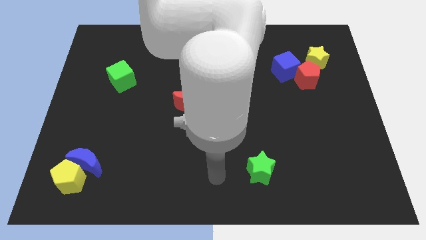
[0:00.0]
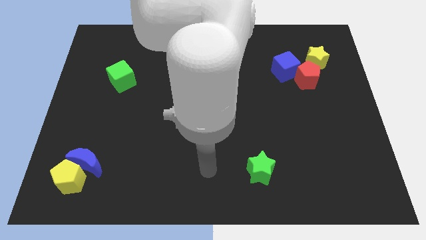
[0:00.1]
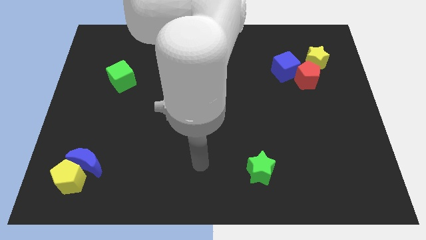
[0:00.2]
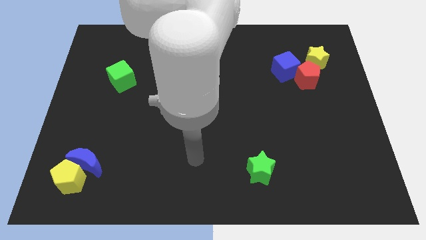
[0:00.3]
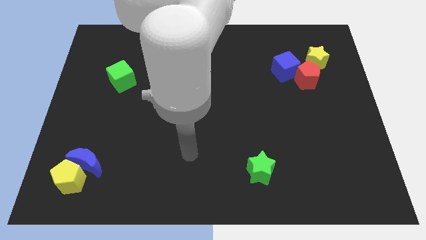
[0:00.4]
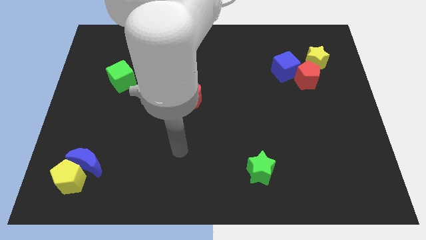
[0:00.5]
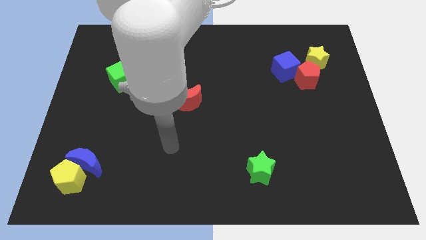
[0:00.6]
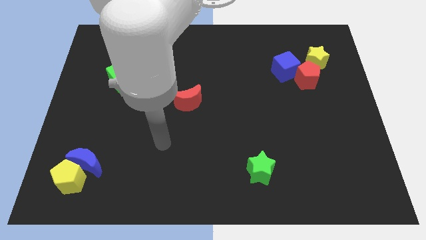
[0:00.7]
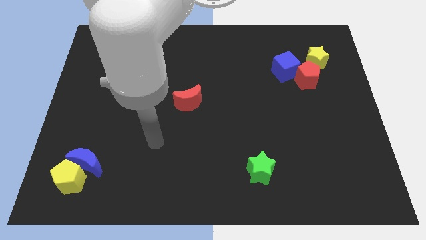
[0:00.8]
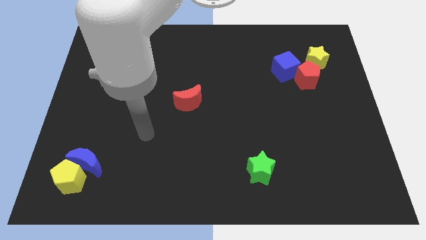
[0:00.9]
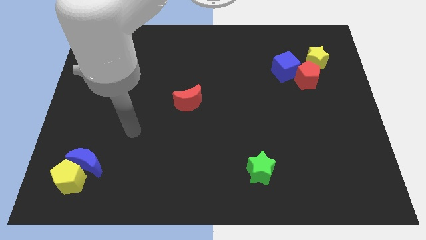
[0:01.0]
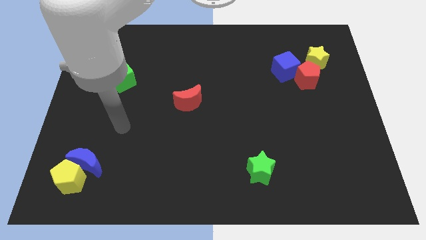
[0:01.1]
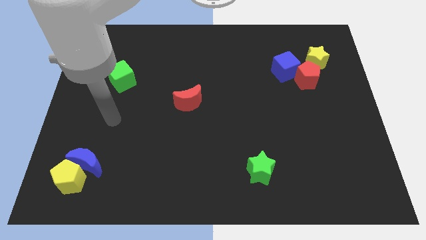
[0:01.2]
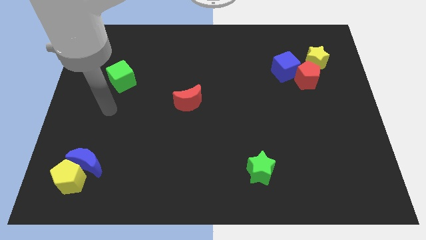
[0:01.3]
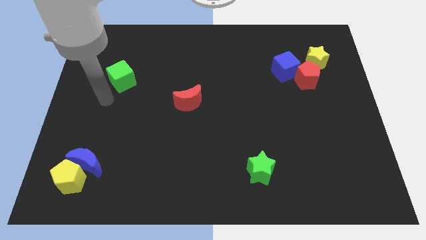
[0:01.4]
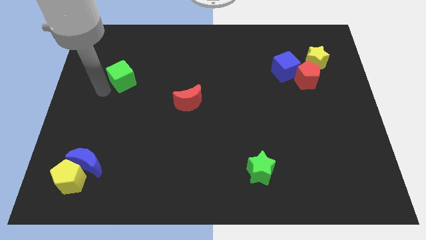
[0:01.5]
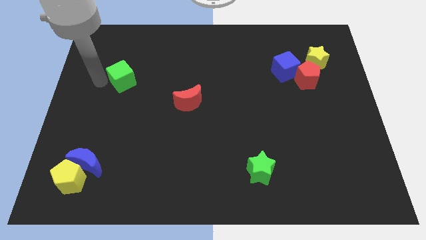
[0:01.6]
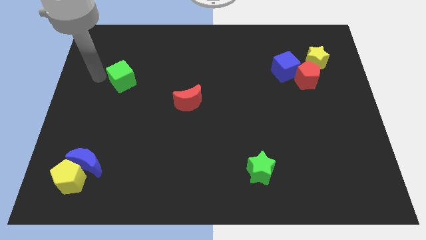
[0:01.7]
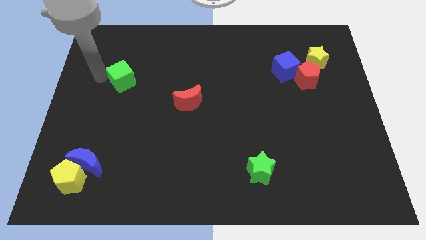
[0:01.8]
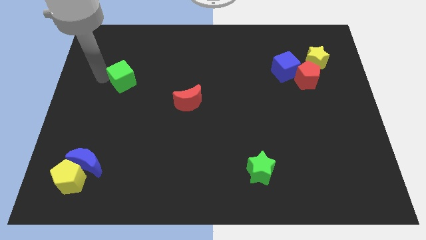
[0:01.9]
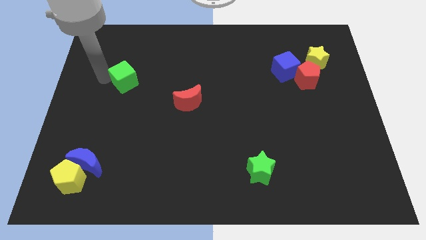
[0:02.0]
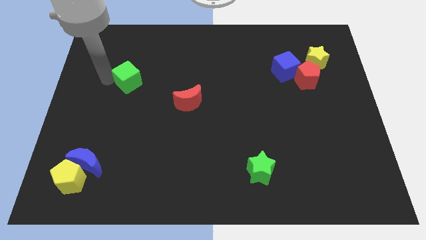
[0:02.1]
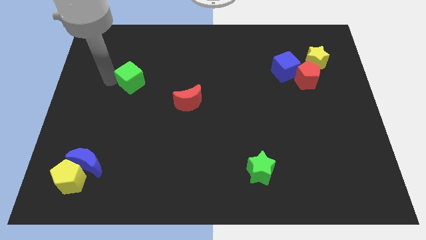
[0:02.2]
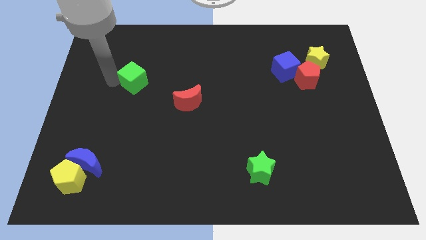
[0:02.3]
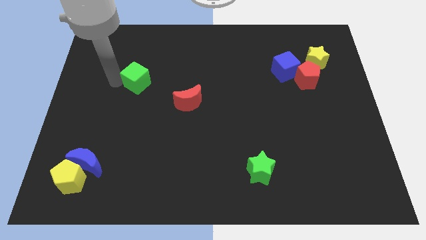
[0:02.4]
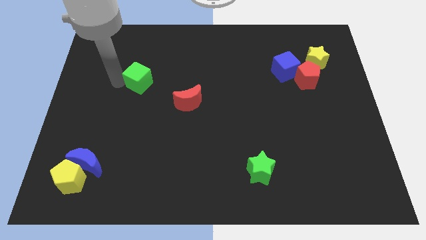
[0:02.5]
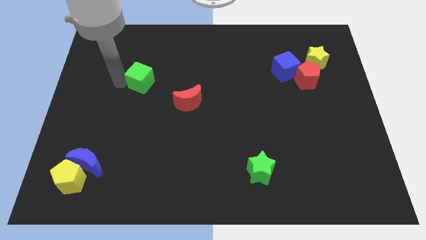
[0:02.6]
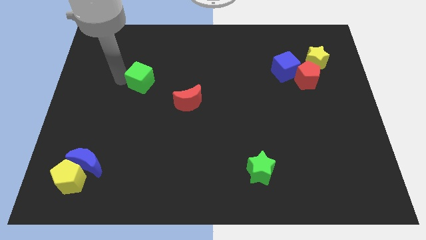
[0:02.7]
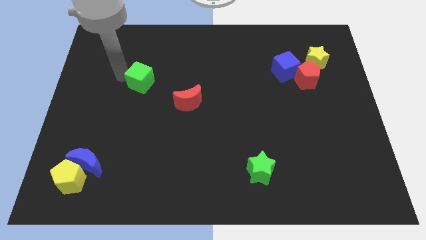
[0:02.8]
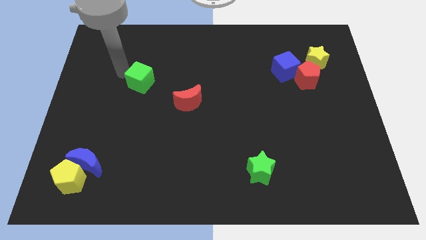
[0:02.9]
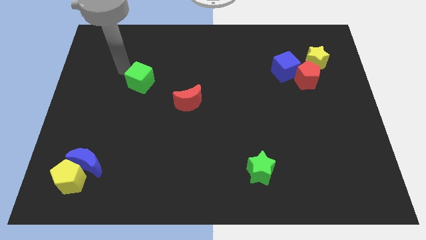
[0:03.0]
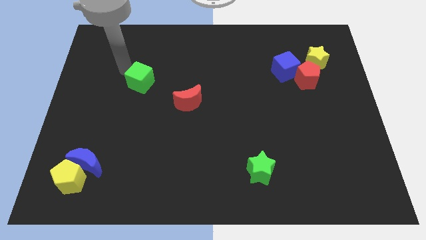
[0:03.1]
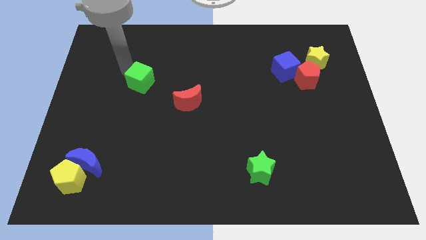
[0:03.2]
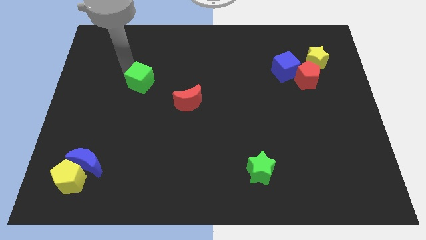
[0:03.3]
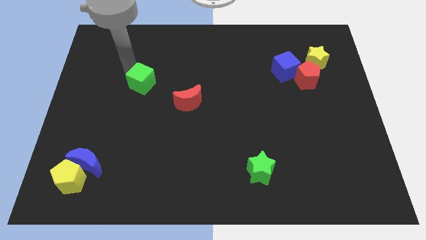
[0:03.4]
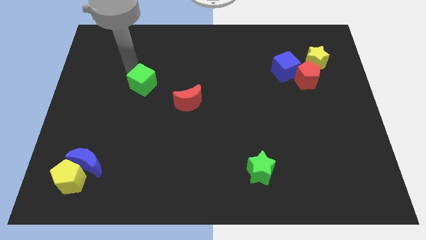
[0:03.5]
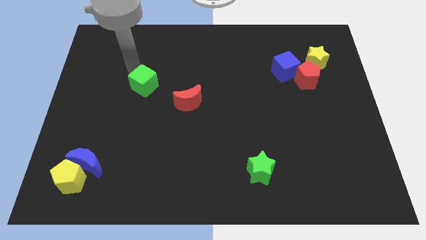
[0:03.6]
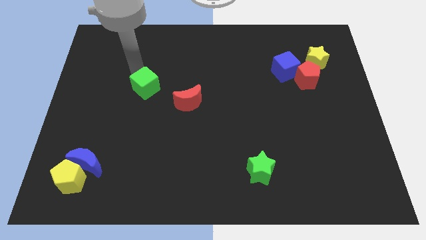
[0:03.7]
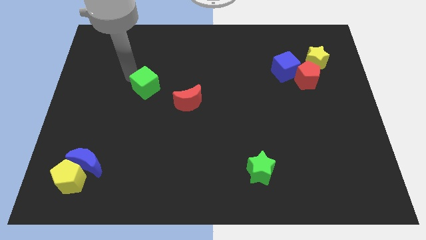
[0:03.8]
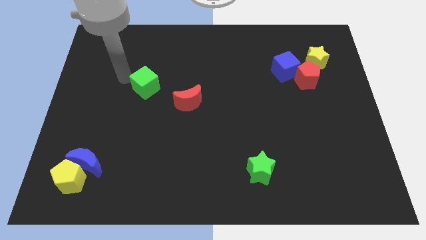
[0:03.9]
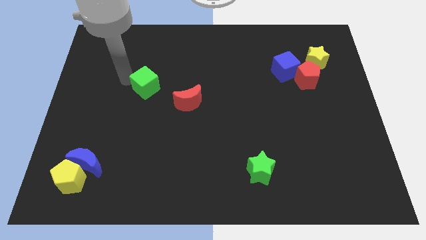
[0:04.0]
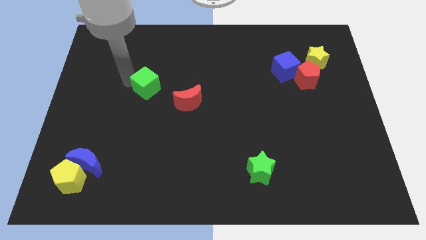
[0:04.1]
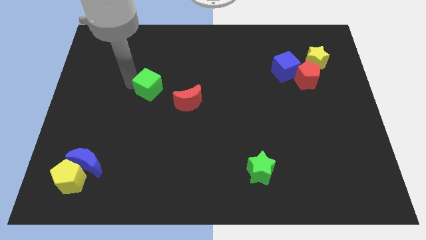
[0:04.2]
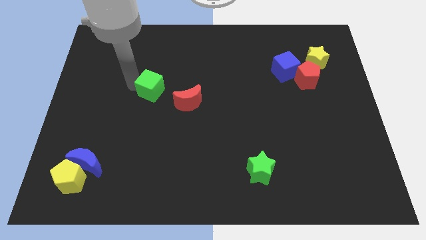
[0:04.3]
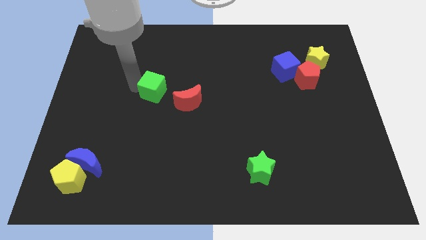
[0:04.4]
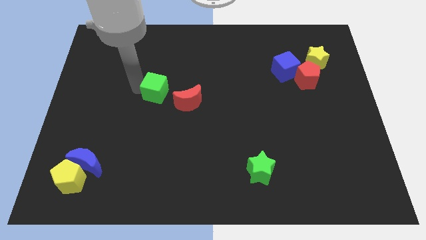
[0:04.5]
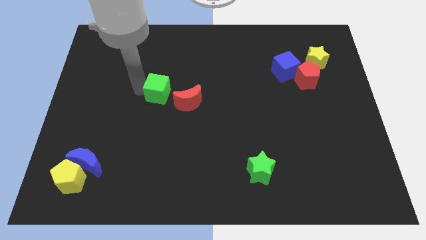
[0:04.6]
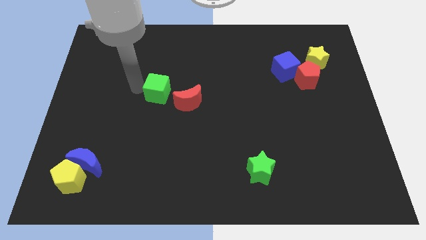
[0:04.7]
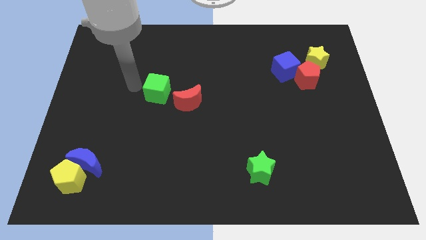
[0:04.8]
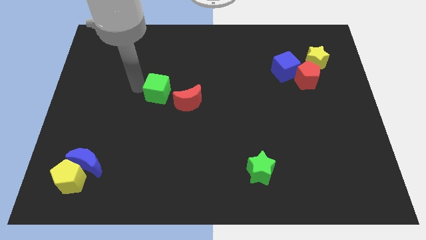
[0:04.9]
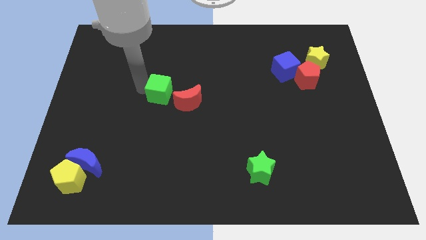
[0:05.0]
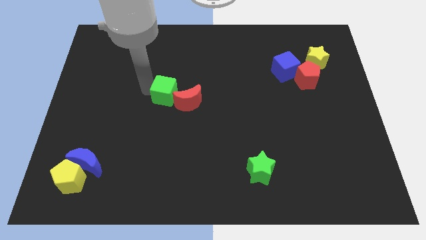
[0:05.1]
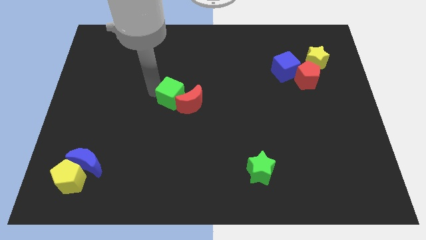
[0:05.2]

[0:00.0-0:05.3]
slide the green cube to the red moon

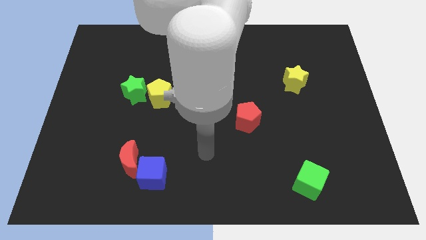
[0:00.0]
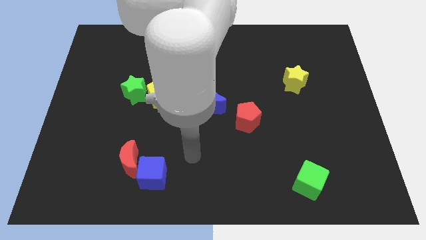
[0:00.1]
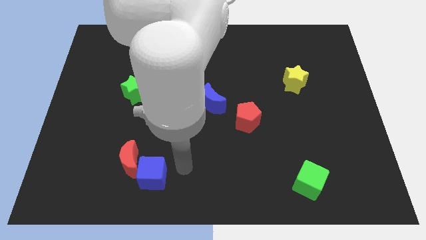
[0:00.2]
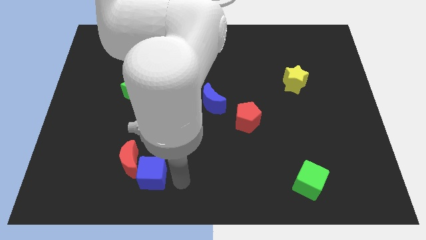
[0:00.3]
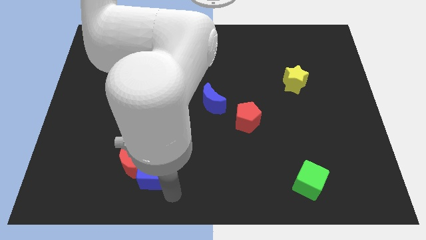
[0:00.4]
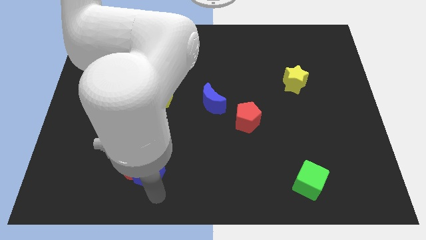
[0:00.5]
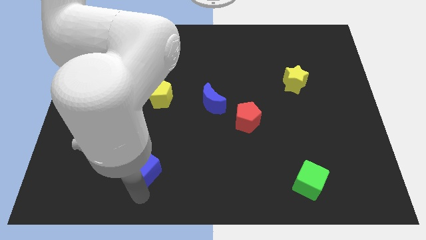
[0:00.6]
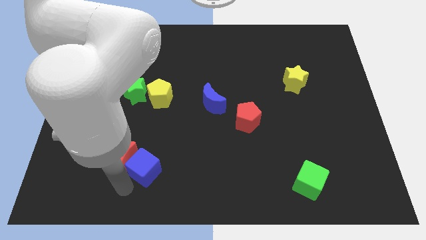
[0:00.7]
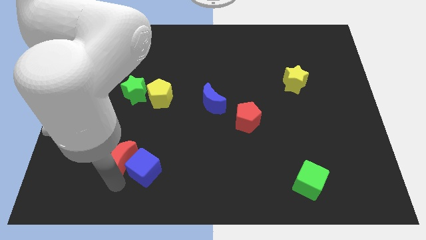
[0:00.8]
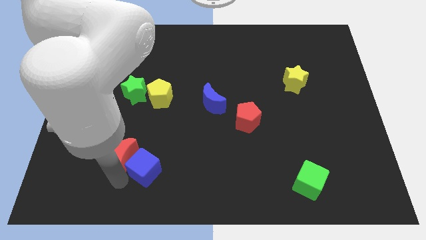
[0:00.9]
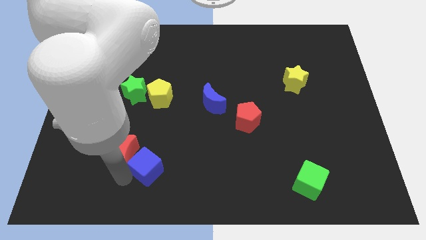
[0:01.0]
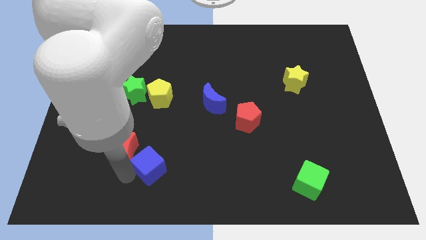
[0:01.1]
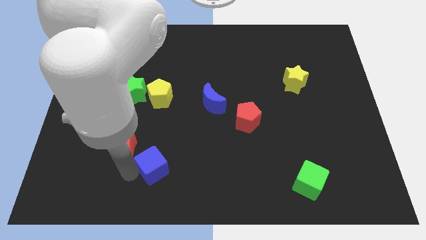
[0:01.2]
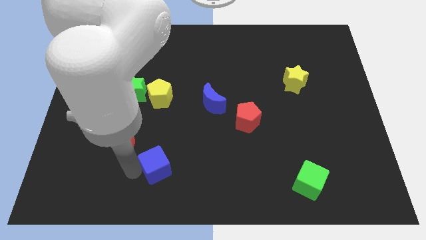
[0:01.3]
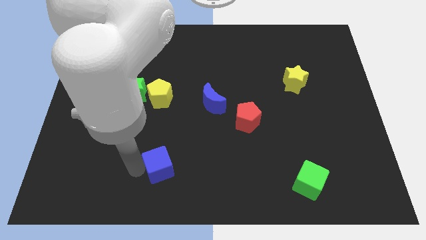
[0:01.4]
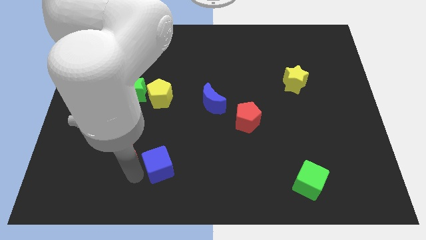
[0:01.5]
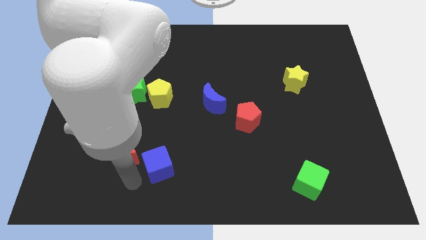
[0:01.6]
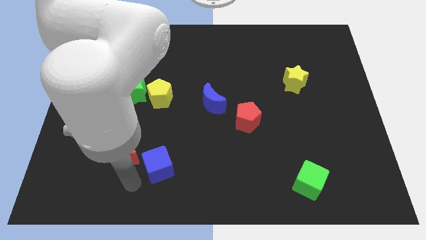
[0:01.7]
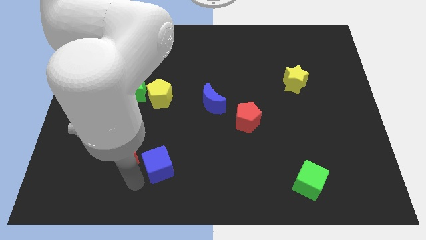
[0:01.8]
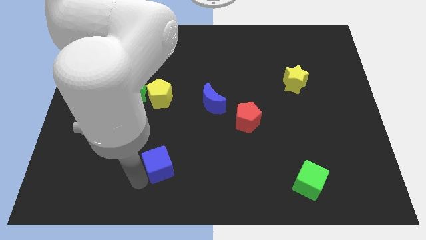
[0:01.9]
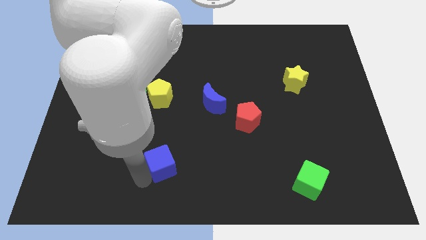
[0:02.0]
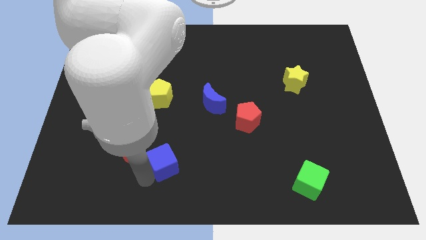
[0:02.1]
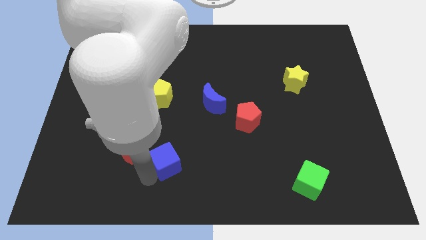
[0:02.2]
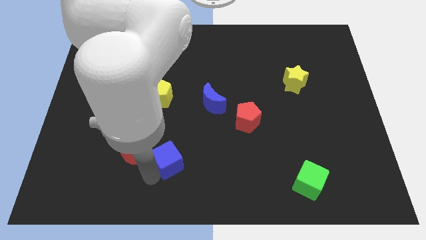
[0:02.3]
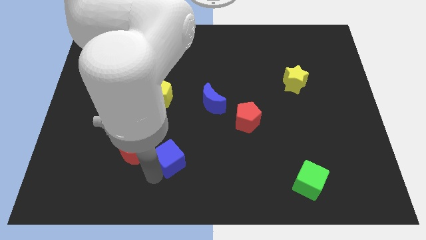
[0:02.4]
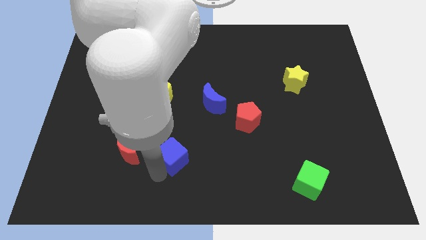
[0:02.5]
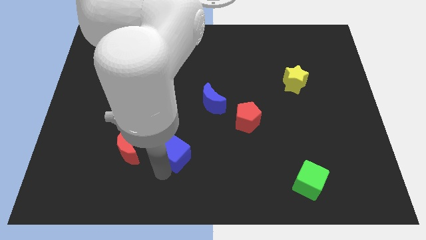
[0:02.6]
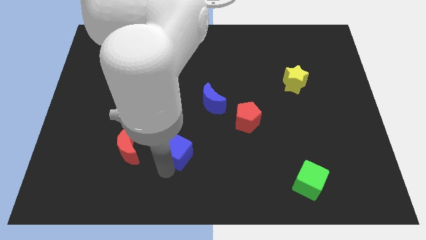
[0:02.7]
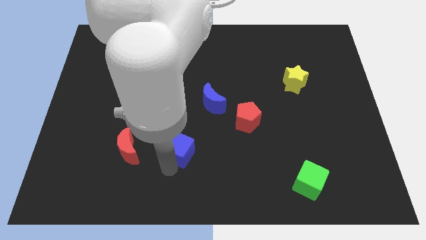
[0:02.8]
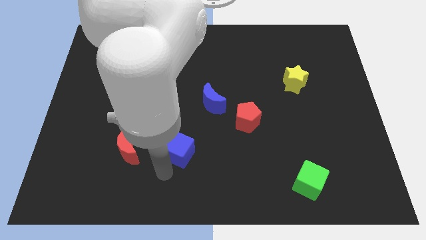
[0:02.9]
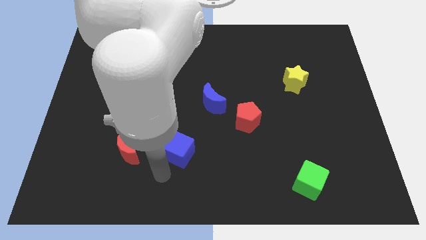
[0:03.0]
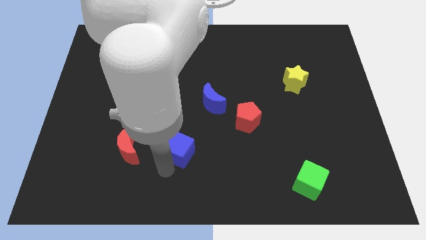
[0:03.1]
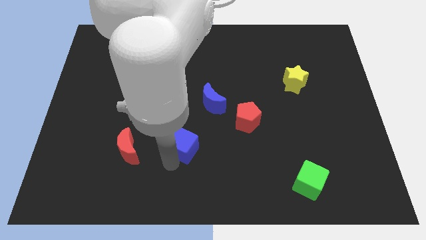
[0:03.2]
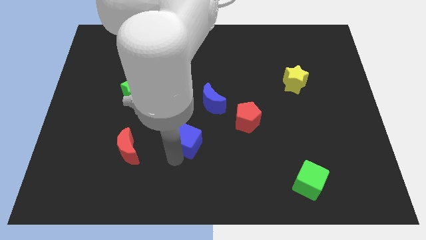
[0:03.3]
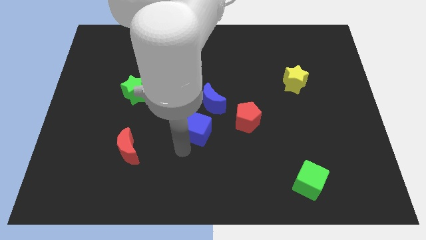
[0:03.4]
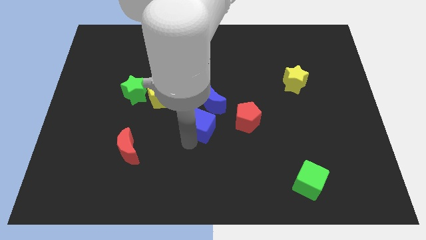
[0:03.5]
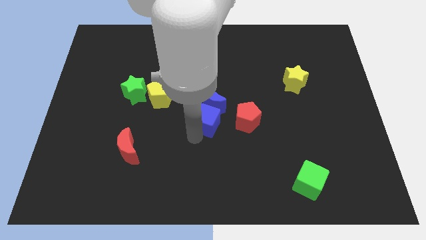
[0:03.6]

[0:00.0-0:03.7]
push the blue cube towards the blue moon
